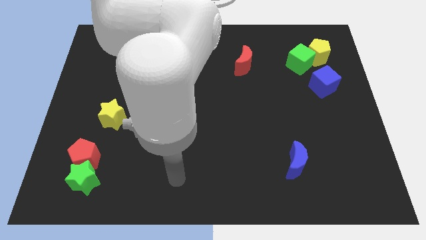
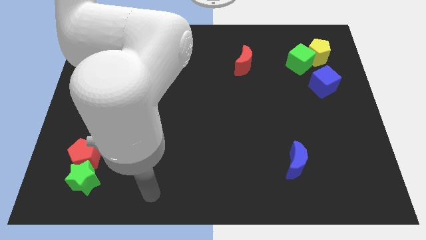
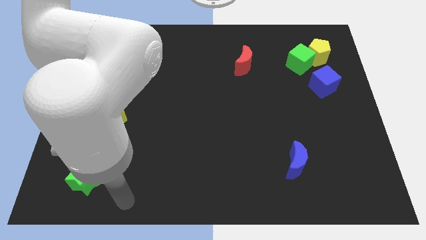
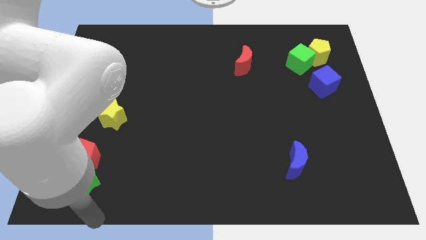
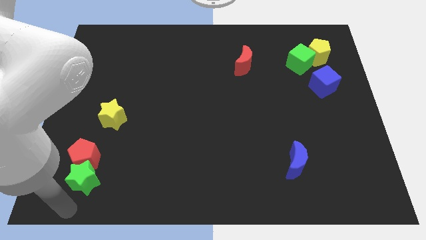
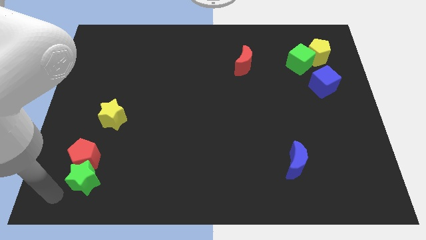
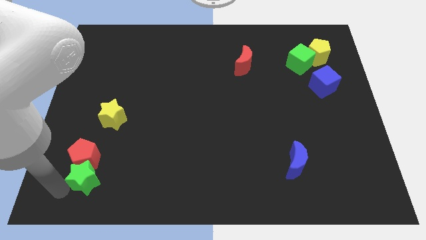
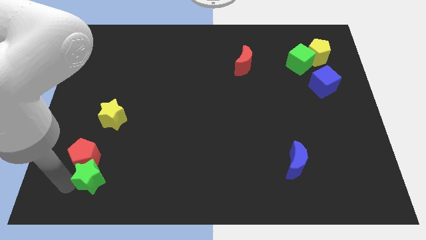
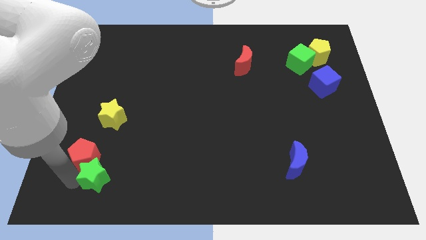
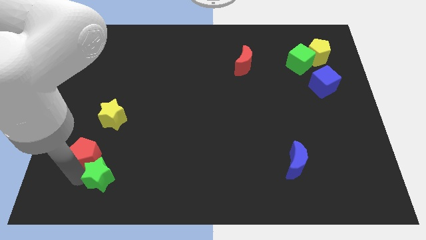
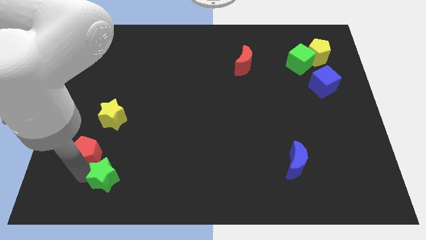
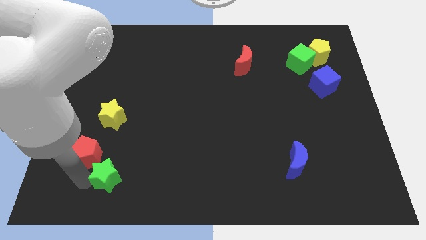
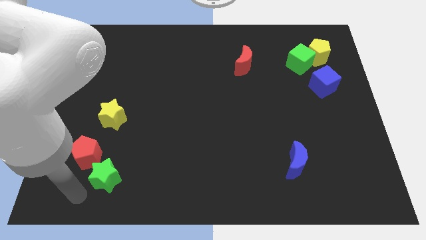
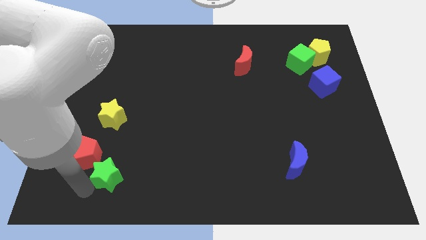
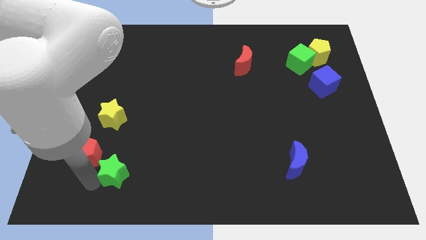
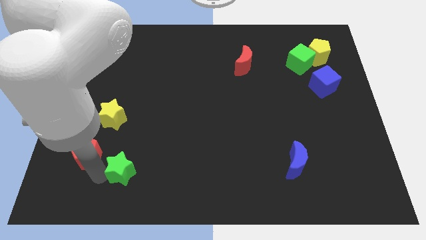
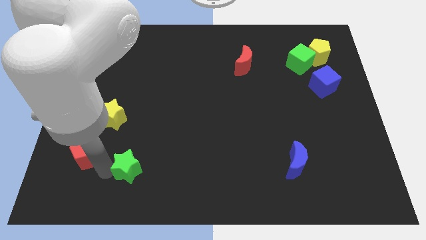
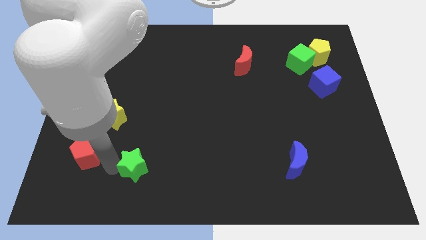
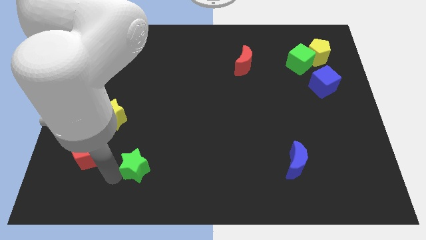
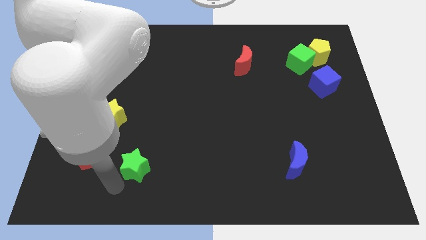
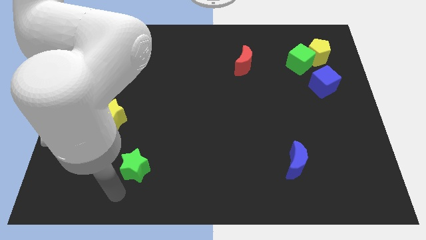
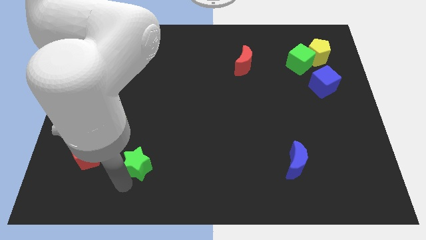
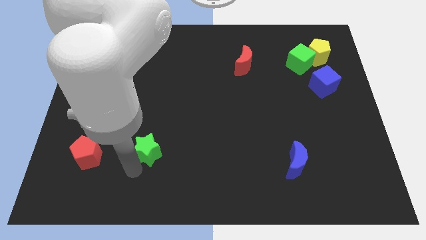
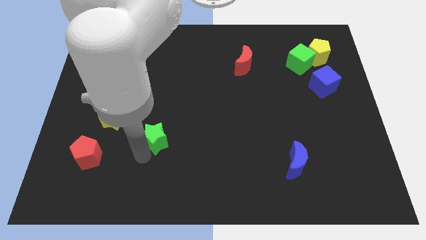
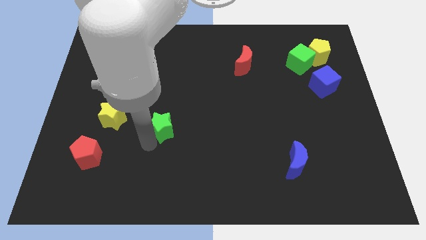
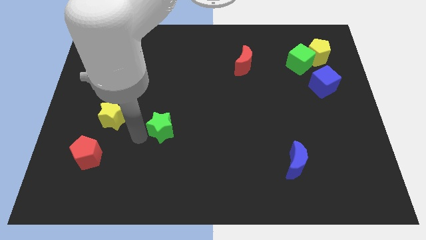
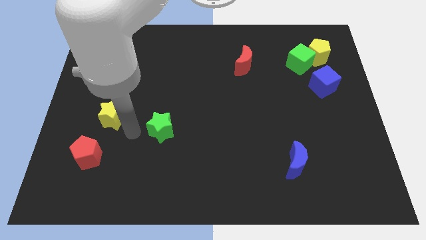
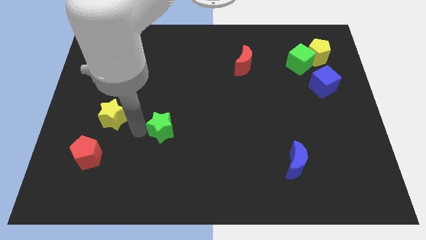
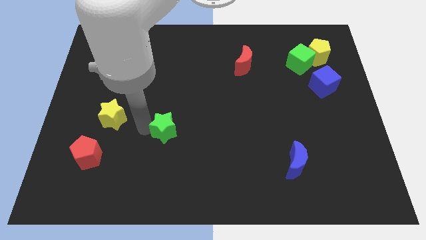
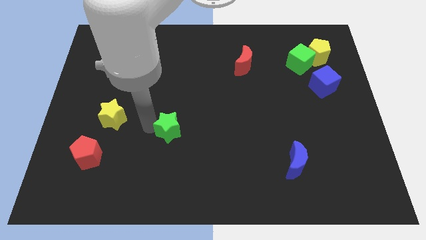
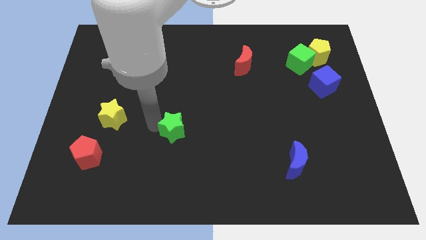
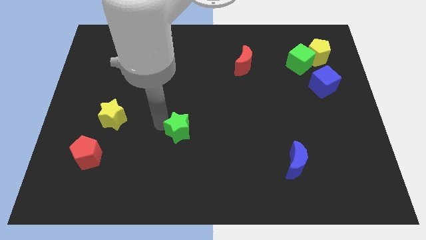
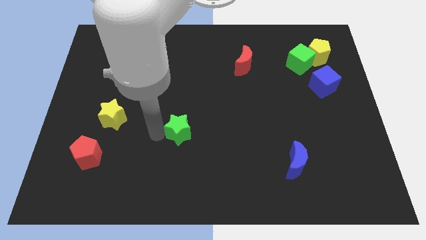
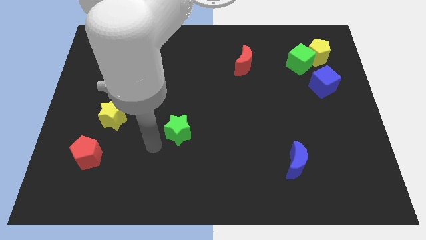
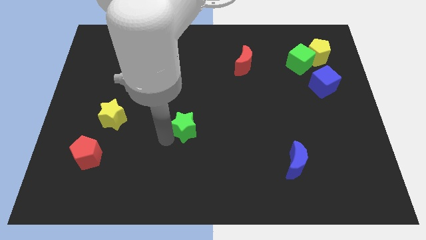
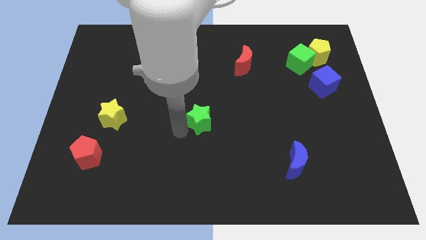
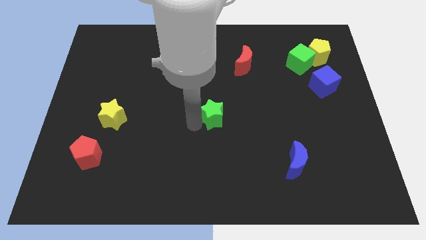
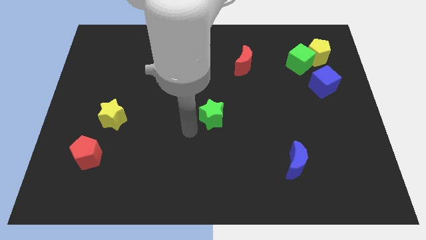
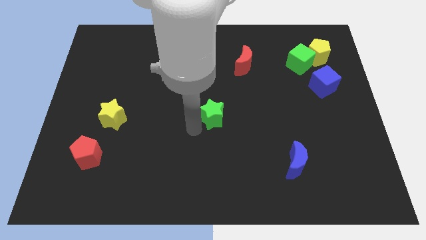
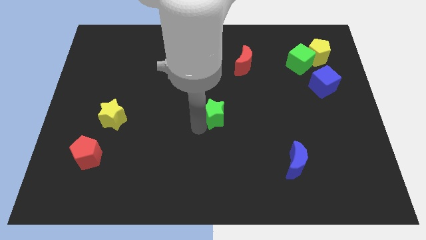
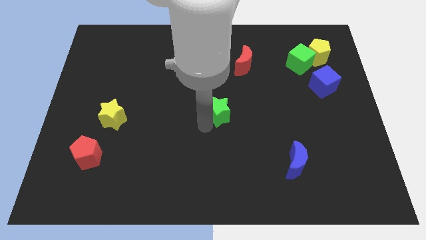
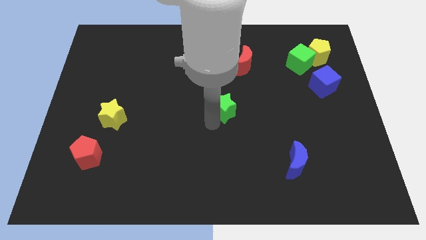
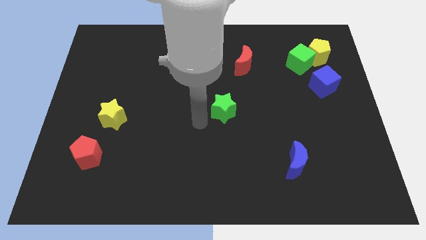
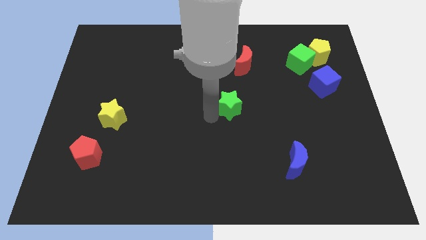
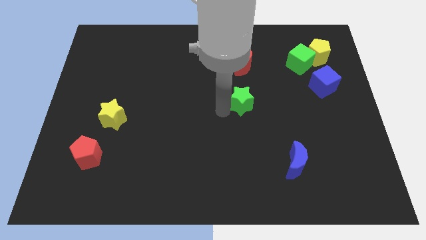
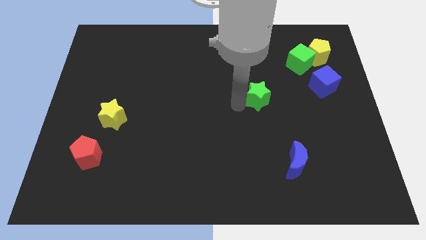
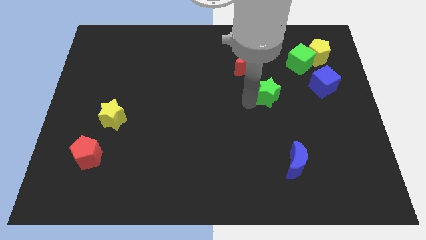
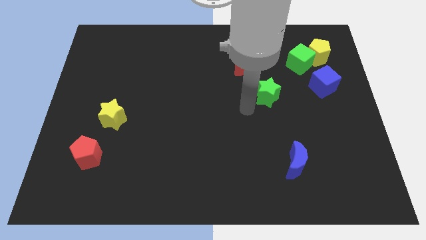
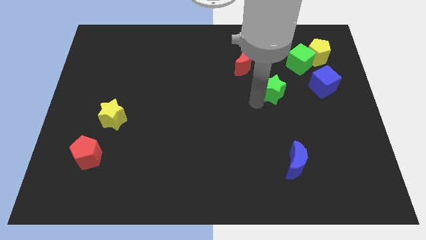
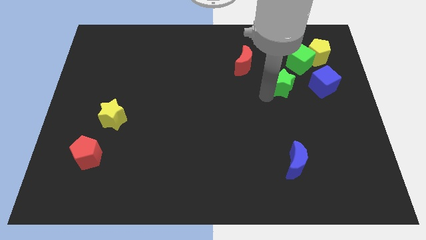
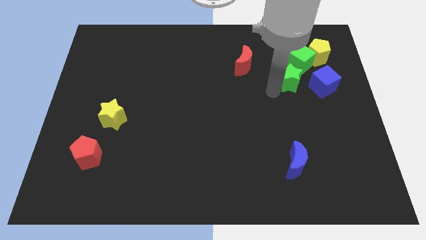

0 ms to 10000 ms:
put the green star to the bottom left side of the yellow pentagon

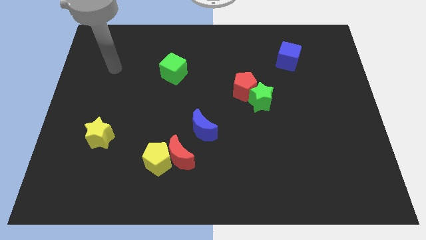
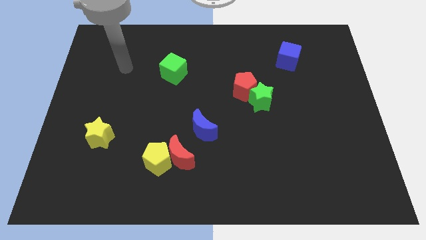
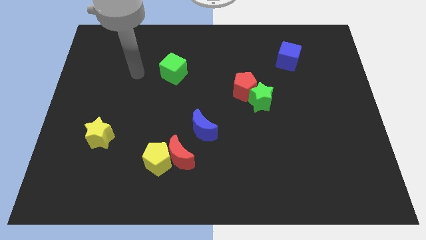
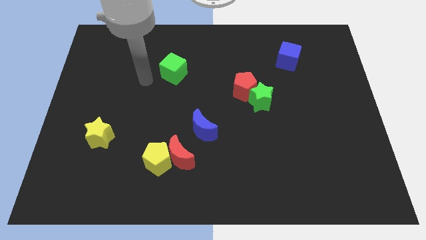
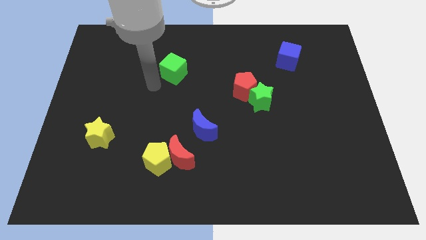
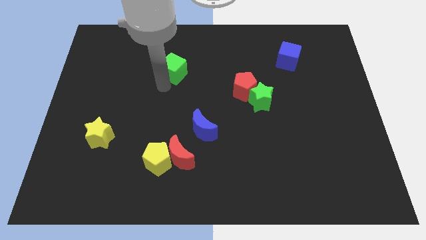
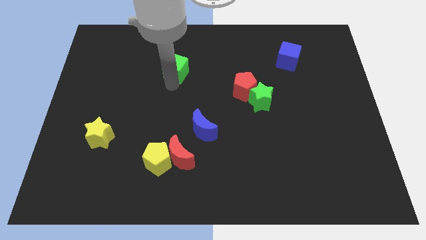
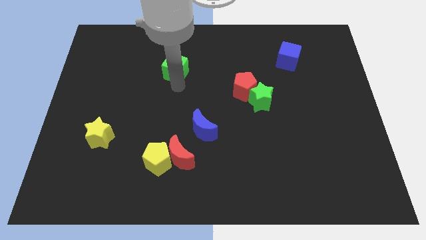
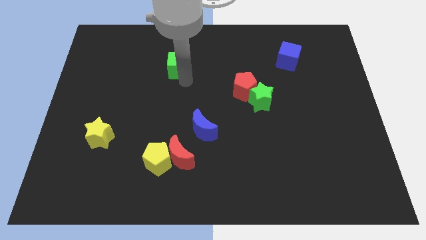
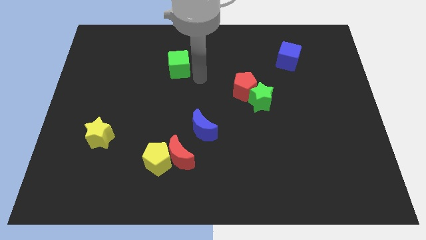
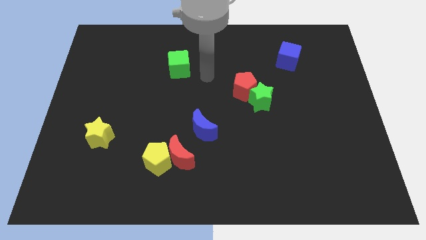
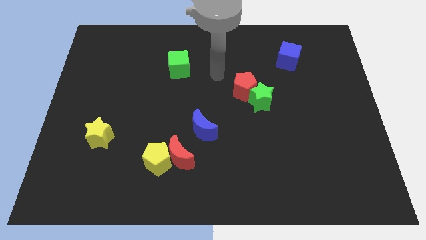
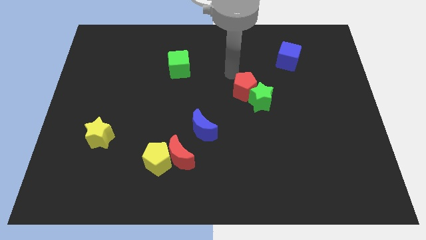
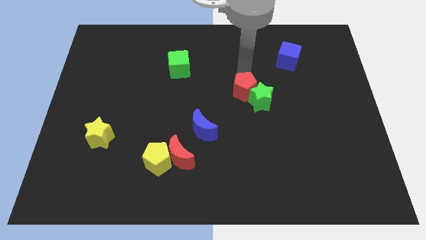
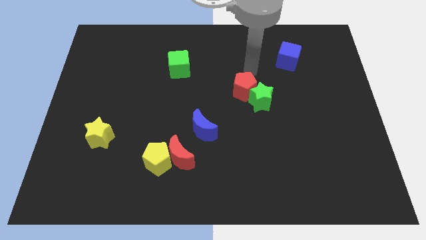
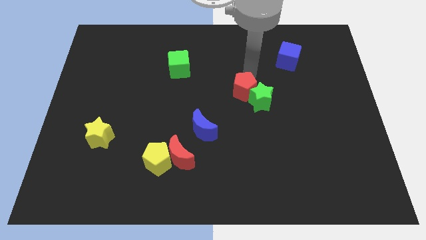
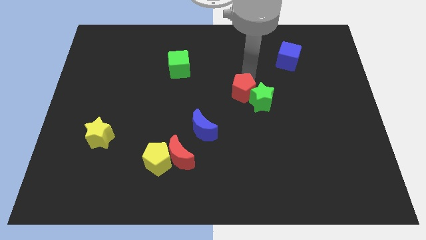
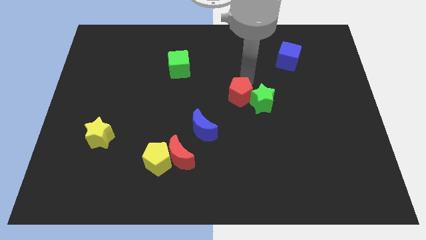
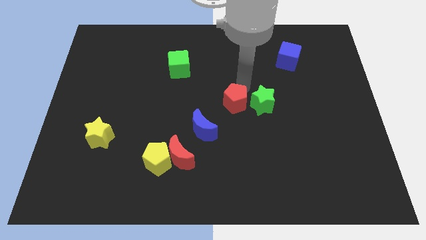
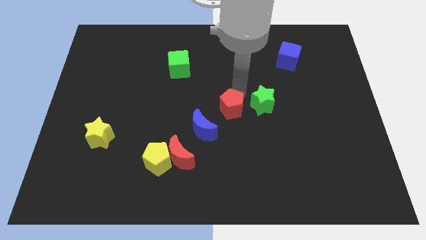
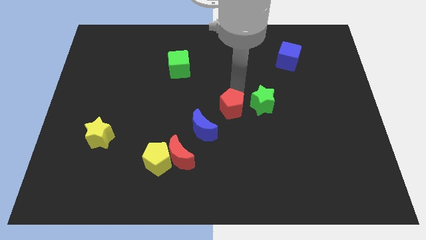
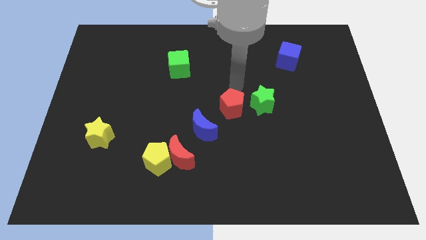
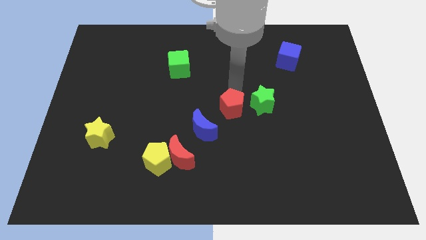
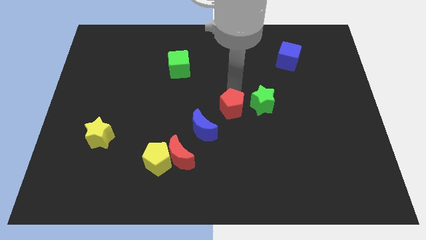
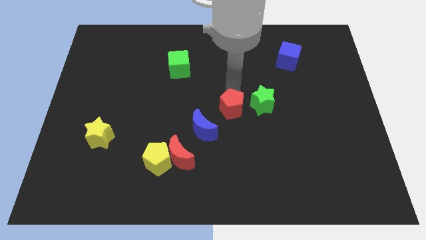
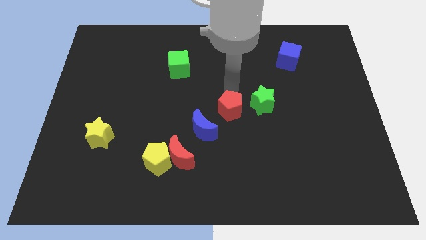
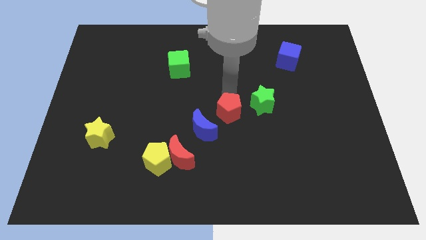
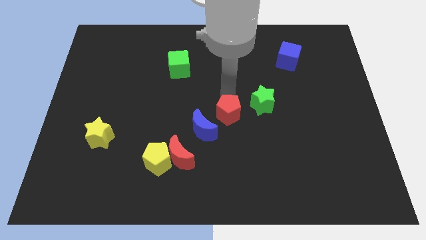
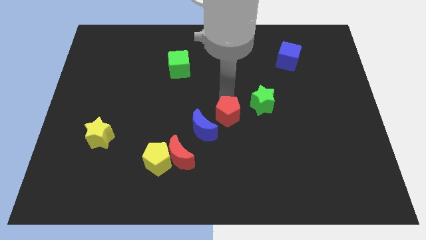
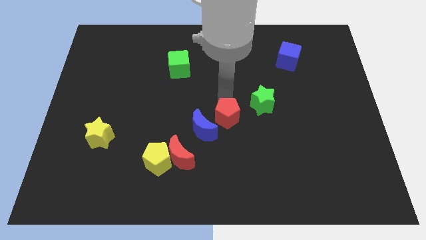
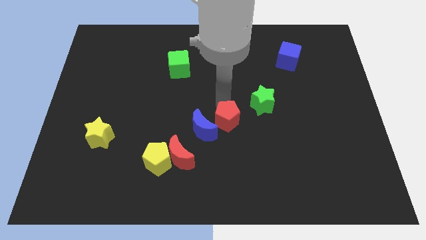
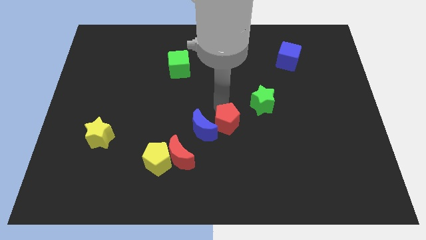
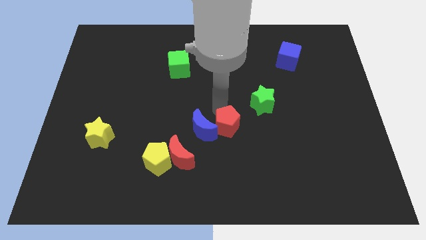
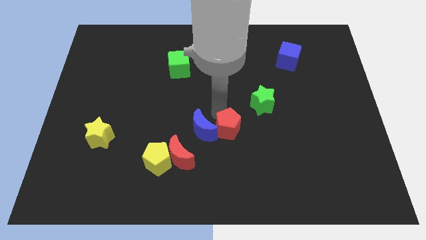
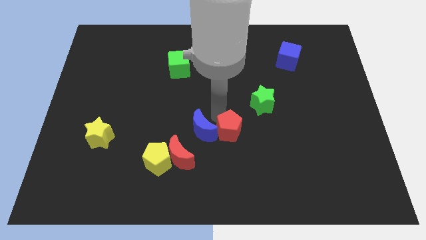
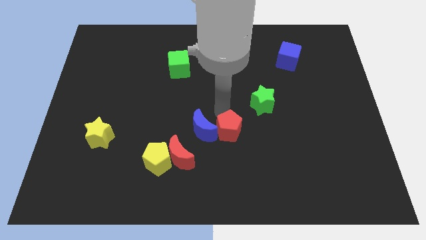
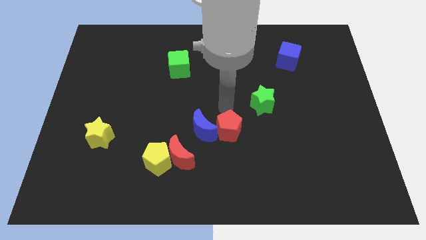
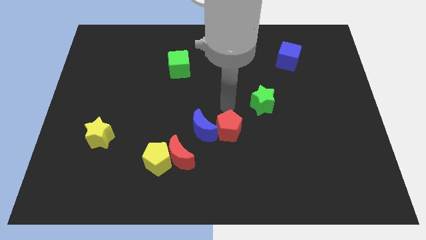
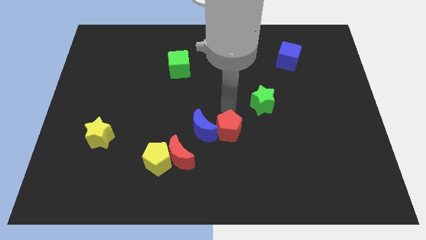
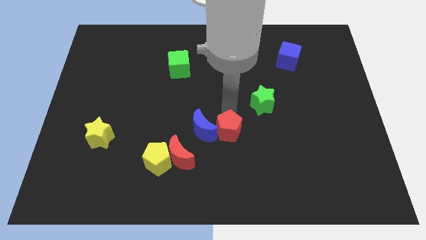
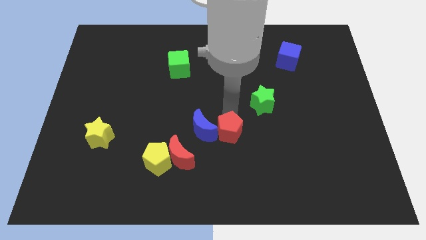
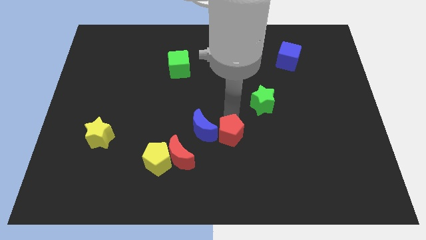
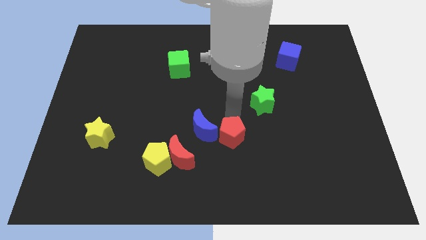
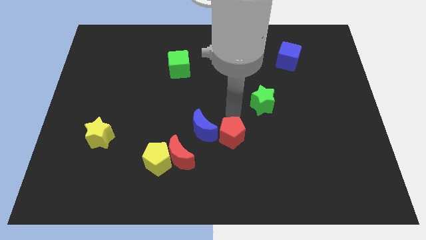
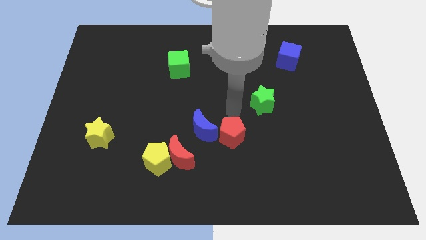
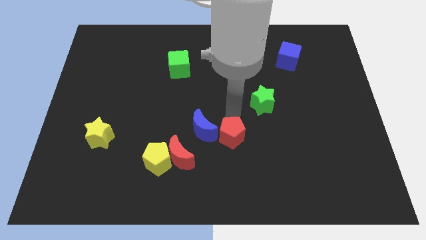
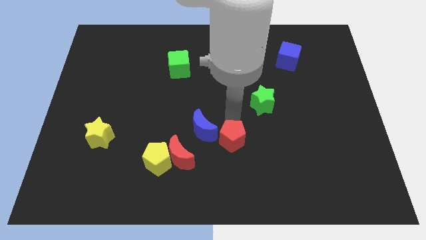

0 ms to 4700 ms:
put the red pentagon to the right side of the red moon
